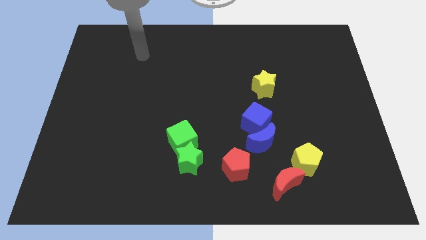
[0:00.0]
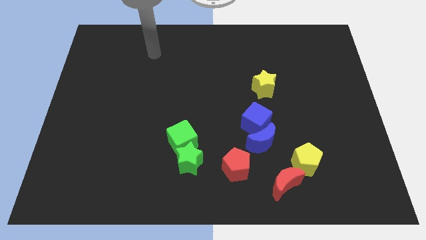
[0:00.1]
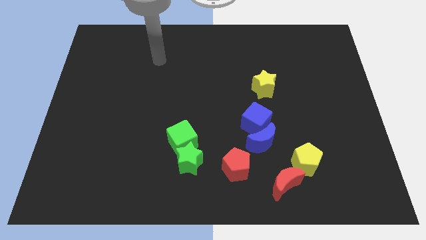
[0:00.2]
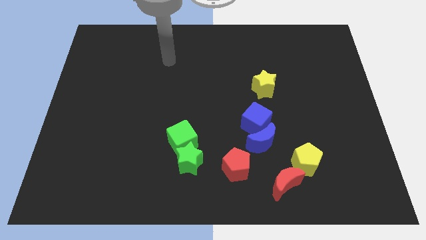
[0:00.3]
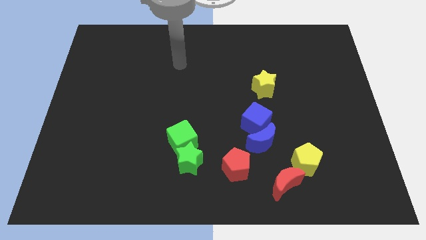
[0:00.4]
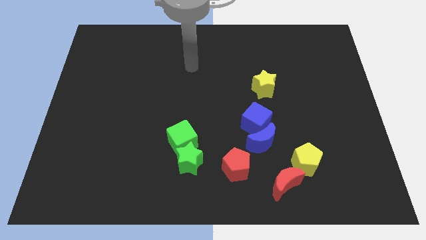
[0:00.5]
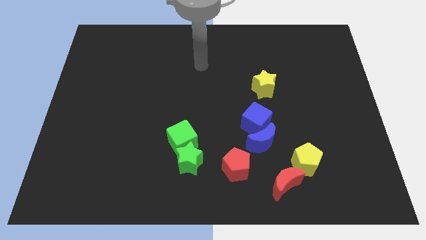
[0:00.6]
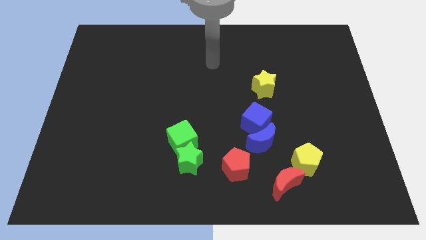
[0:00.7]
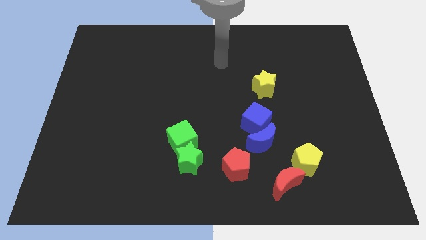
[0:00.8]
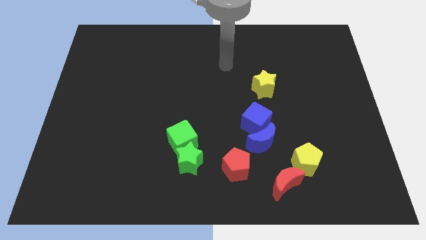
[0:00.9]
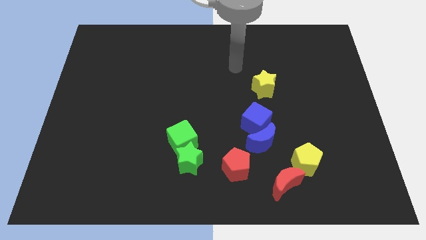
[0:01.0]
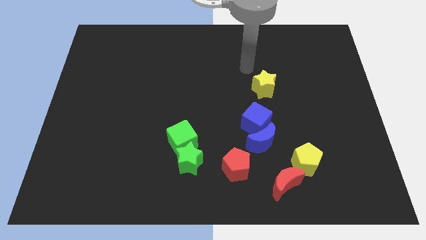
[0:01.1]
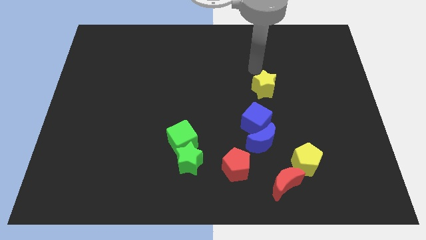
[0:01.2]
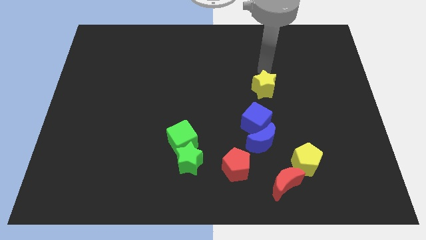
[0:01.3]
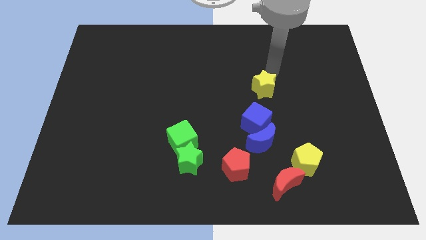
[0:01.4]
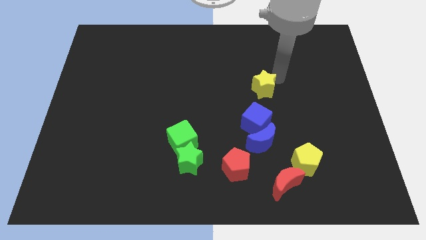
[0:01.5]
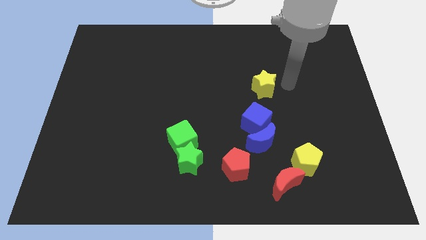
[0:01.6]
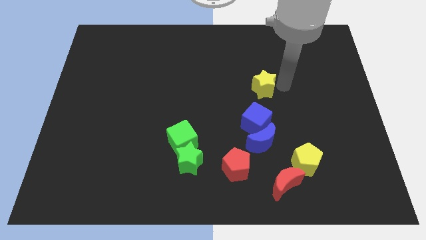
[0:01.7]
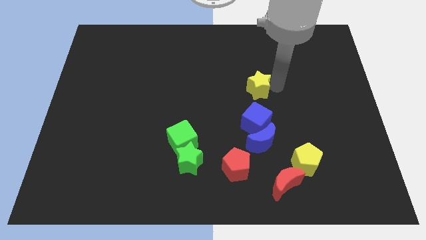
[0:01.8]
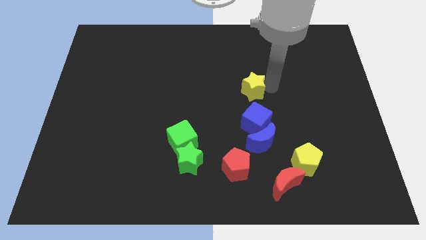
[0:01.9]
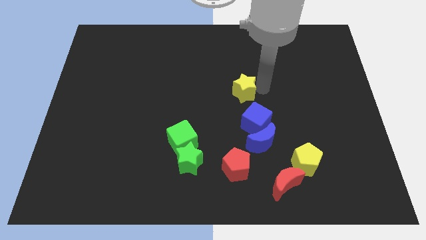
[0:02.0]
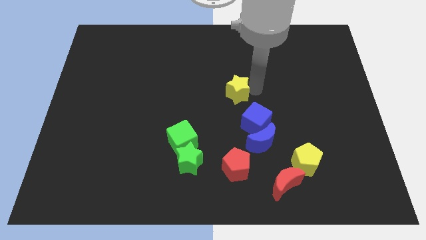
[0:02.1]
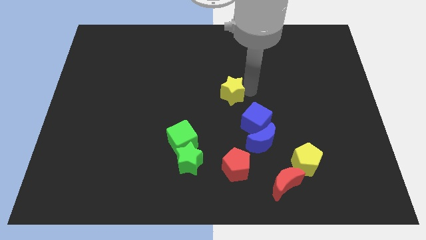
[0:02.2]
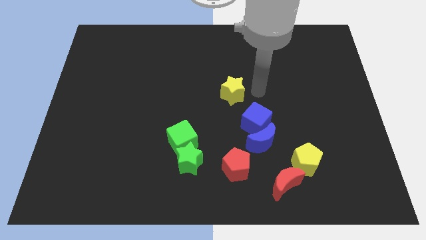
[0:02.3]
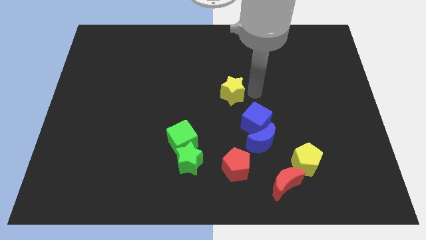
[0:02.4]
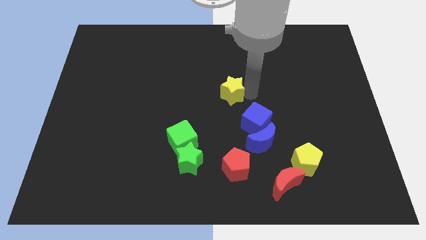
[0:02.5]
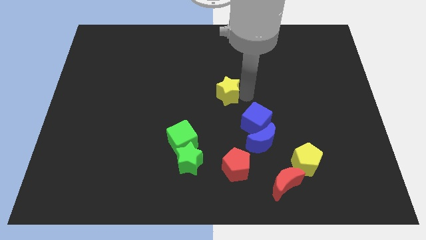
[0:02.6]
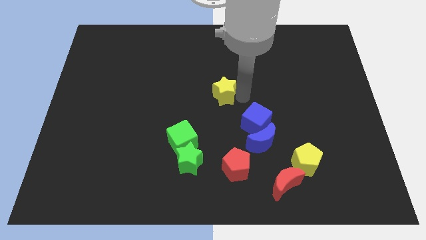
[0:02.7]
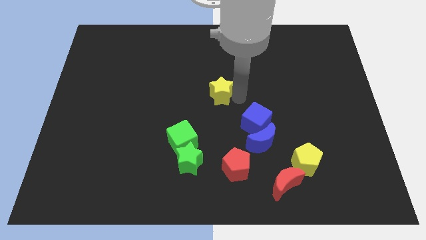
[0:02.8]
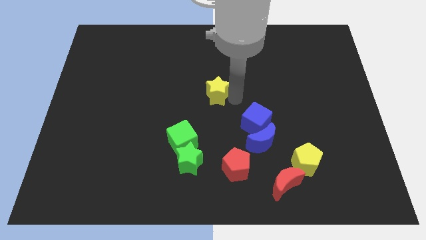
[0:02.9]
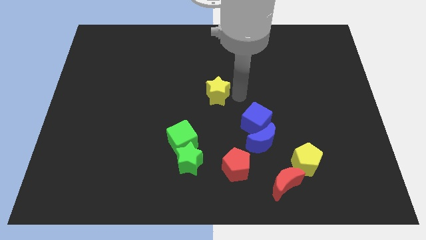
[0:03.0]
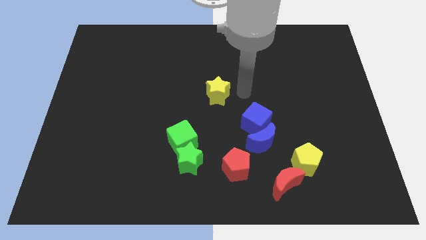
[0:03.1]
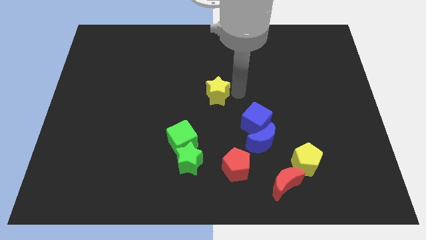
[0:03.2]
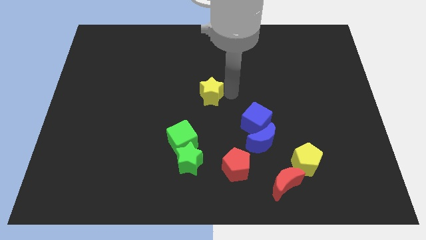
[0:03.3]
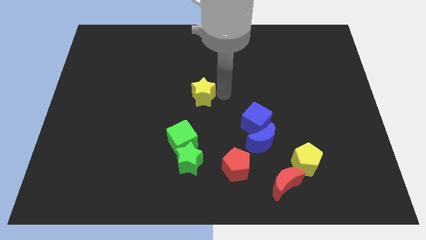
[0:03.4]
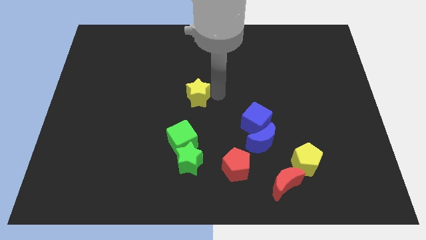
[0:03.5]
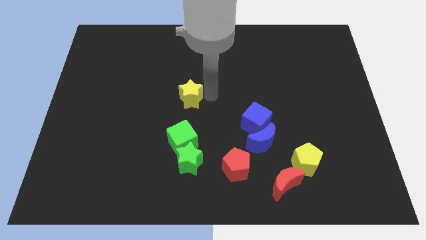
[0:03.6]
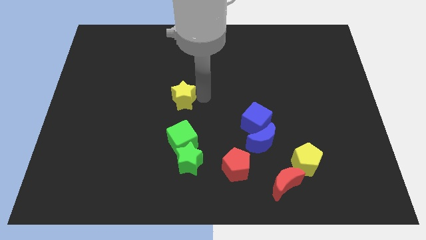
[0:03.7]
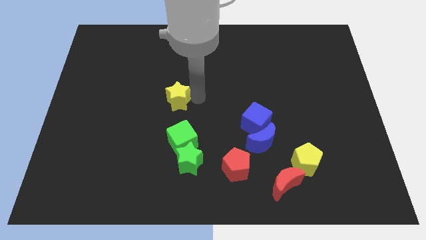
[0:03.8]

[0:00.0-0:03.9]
slide the yellow star left

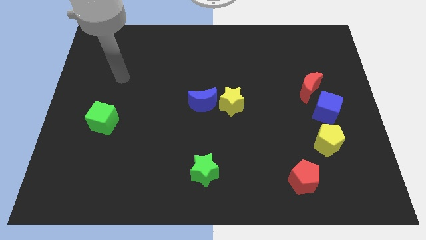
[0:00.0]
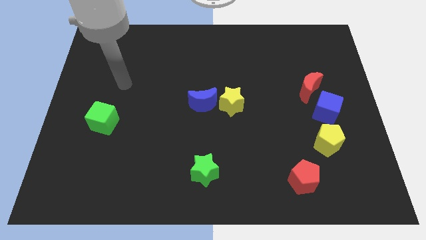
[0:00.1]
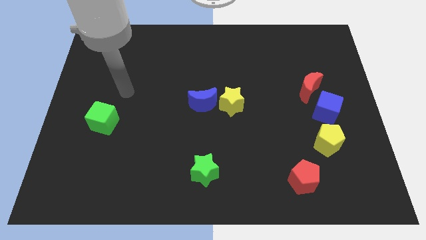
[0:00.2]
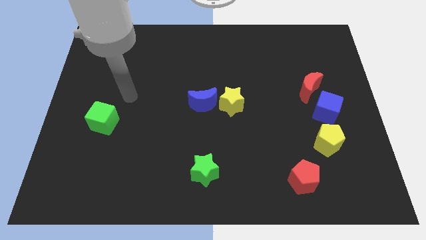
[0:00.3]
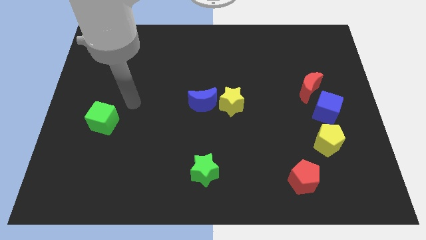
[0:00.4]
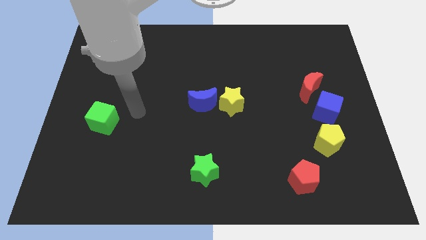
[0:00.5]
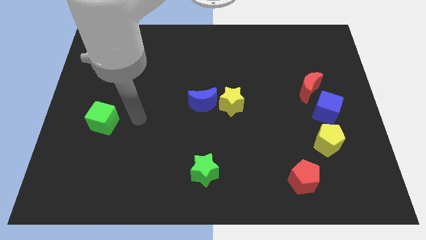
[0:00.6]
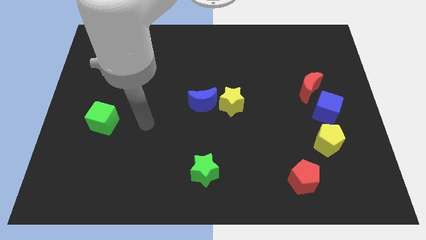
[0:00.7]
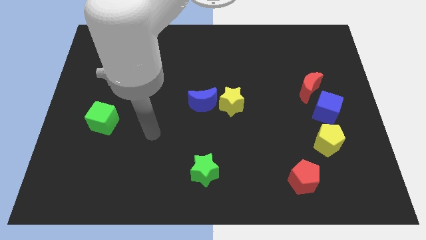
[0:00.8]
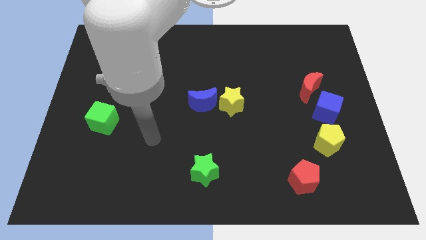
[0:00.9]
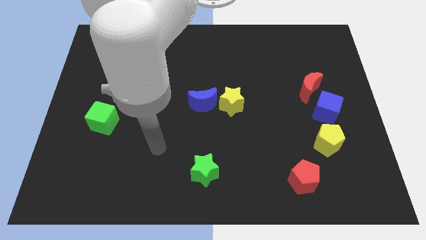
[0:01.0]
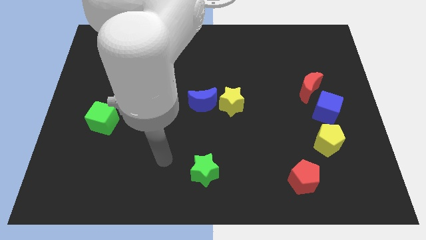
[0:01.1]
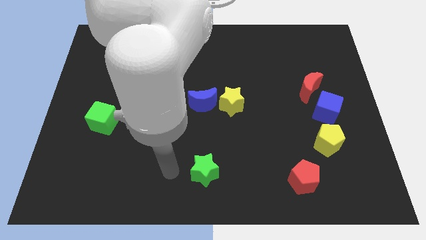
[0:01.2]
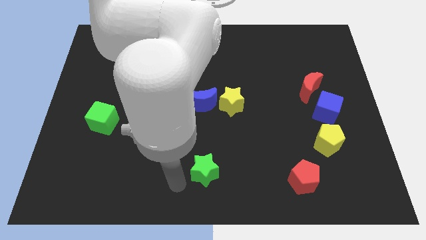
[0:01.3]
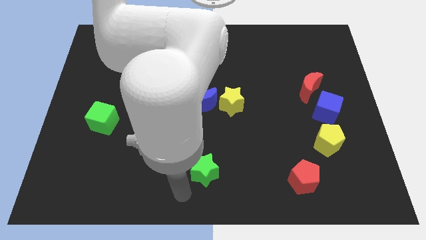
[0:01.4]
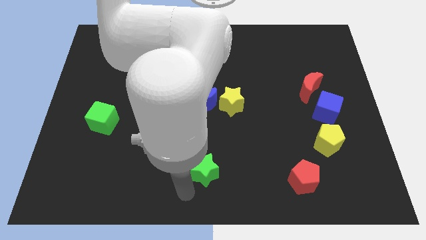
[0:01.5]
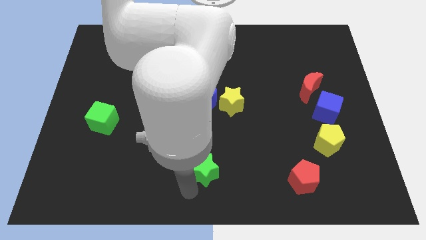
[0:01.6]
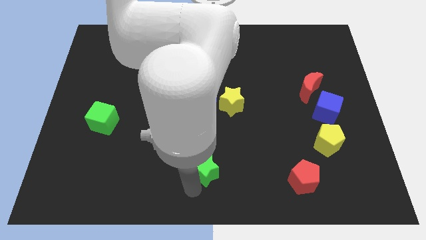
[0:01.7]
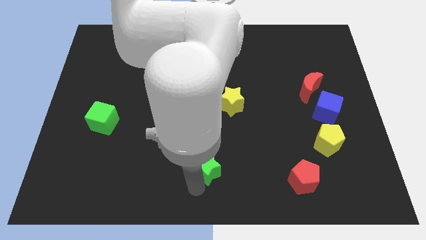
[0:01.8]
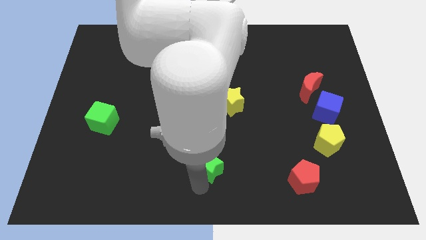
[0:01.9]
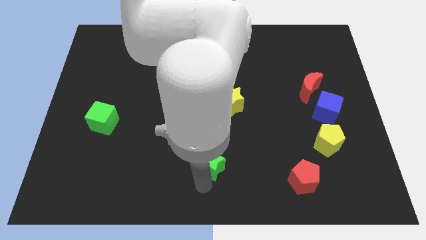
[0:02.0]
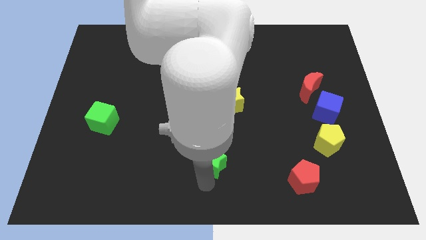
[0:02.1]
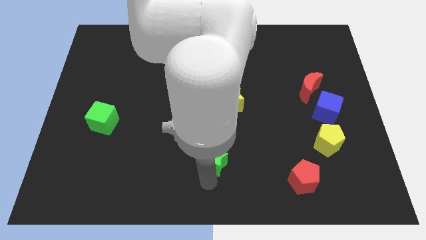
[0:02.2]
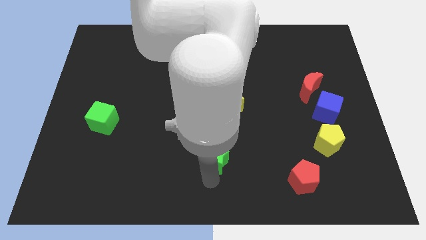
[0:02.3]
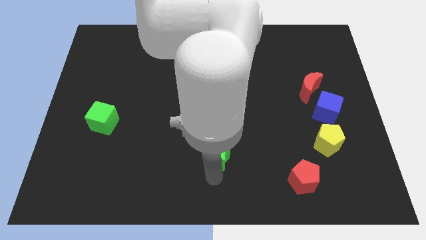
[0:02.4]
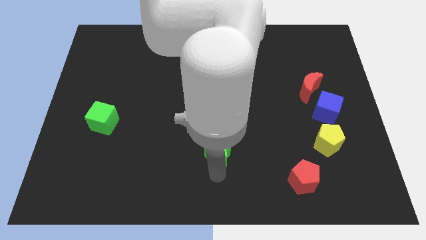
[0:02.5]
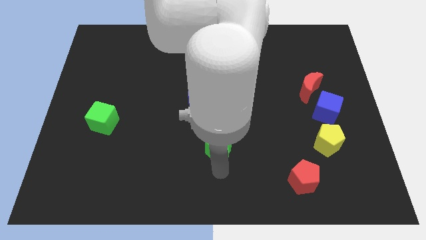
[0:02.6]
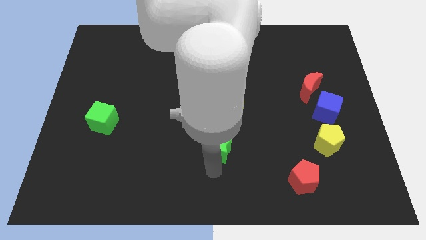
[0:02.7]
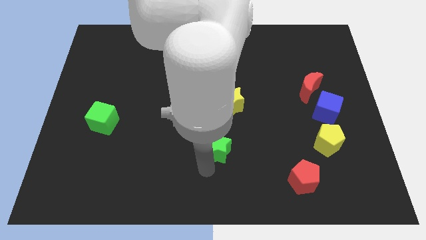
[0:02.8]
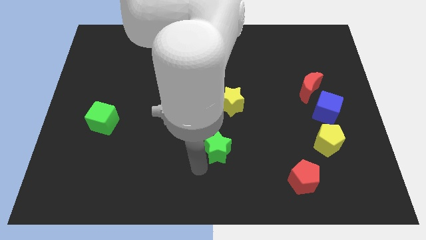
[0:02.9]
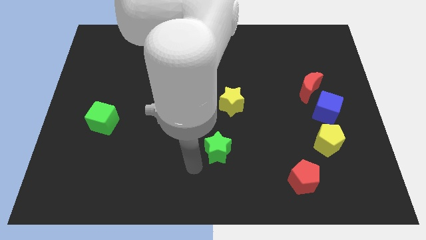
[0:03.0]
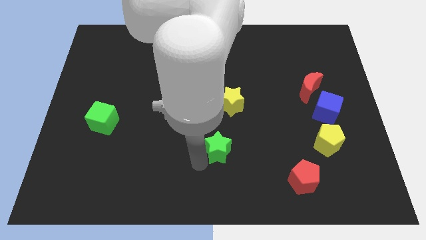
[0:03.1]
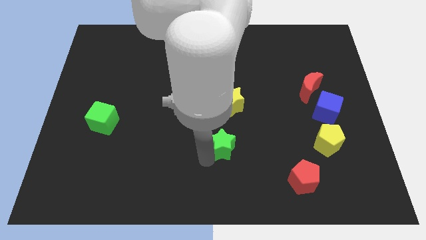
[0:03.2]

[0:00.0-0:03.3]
slightly slide the green star up and then right

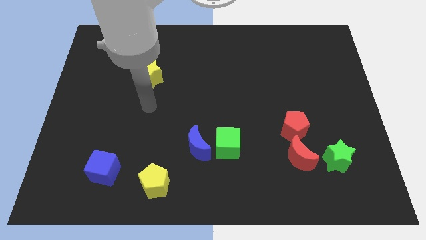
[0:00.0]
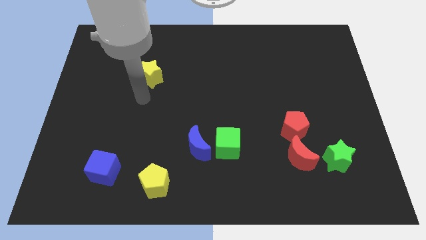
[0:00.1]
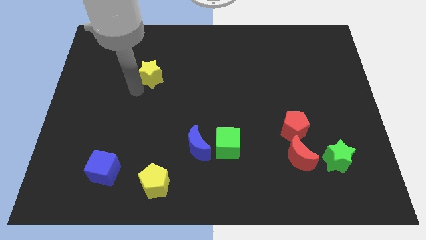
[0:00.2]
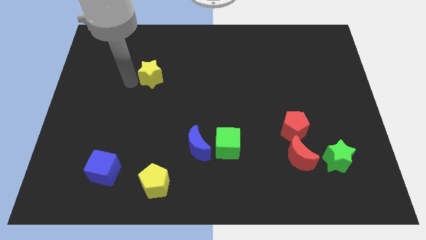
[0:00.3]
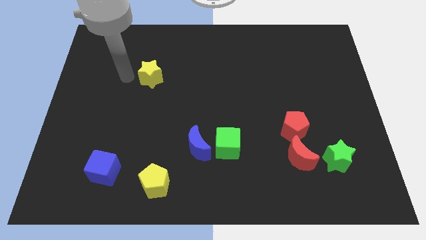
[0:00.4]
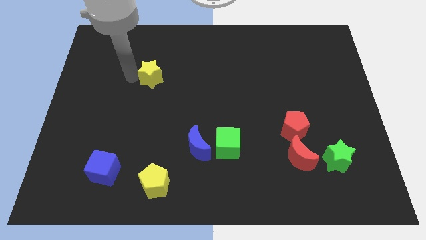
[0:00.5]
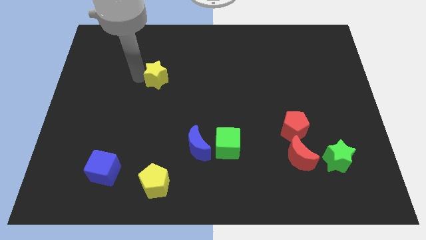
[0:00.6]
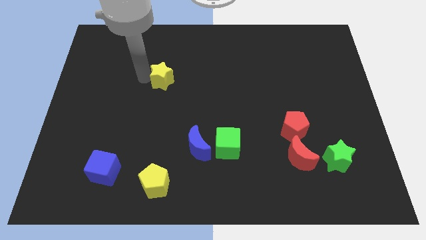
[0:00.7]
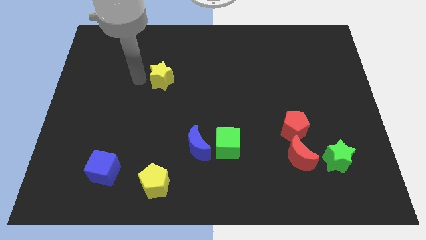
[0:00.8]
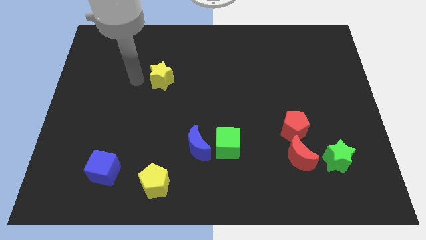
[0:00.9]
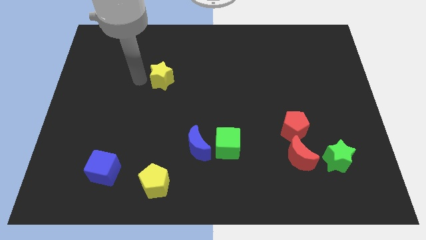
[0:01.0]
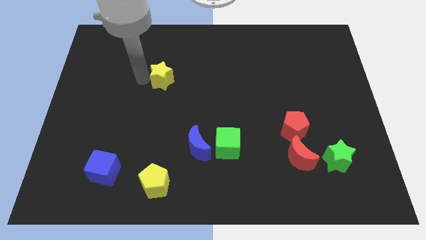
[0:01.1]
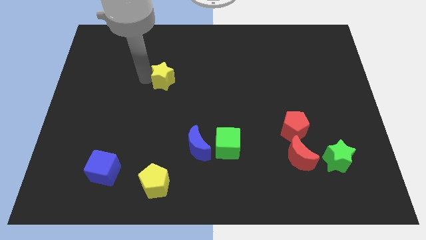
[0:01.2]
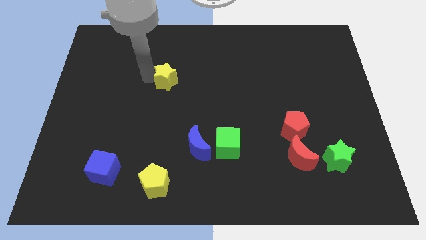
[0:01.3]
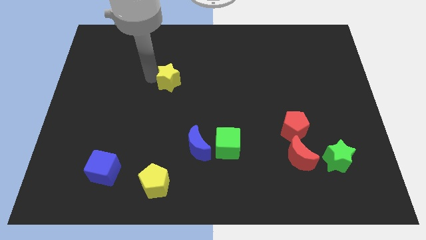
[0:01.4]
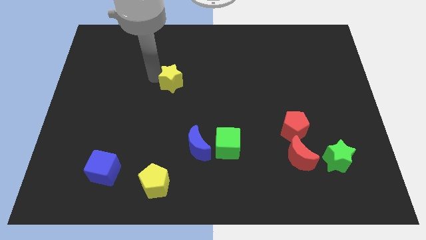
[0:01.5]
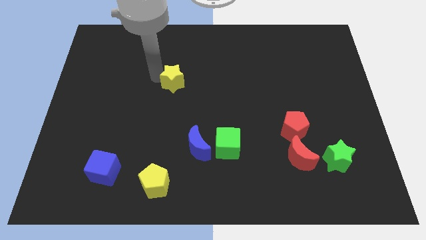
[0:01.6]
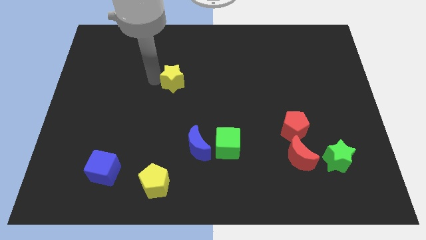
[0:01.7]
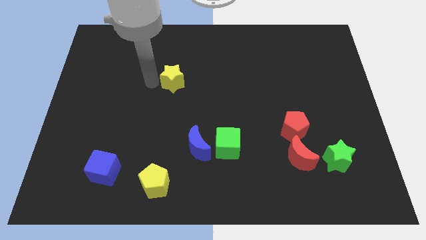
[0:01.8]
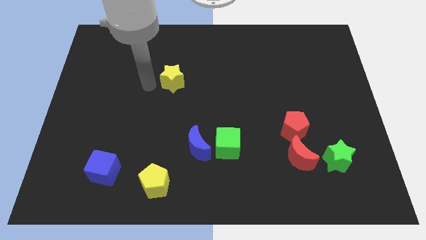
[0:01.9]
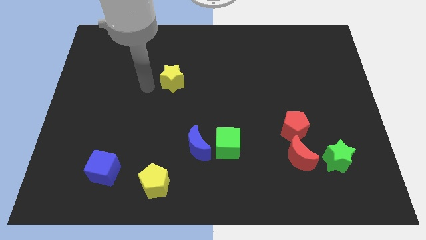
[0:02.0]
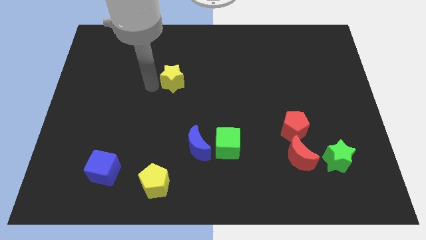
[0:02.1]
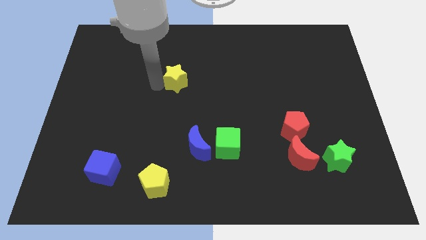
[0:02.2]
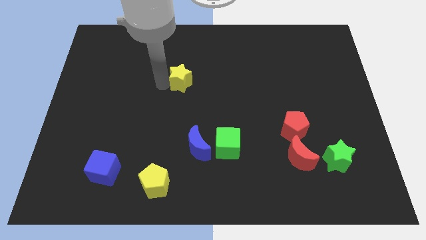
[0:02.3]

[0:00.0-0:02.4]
slightly move the yellow star to the right
